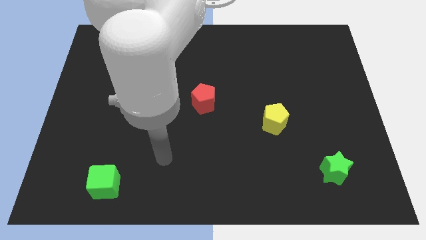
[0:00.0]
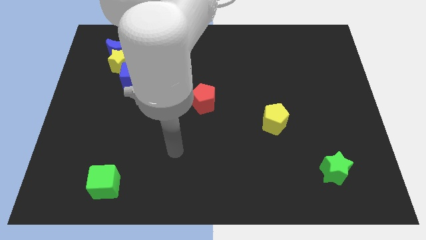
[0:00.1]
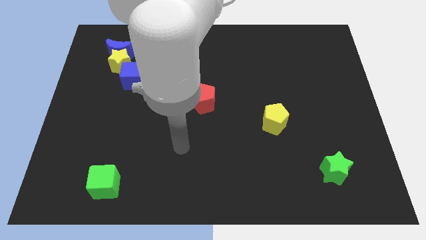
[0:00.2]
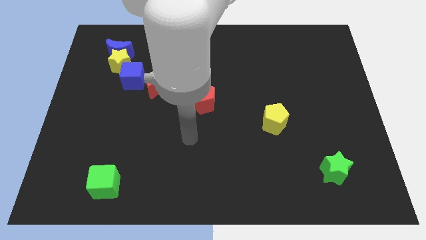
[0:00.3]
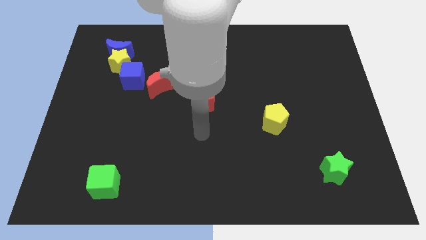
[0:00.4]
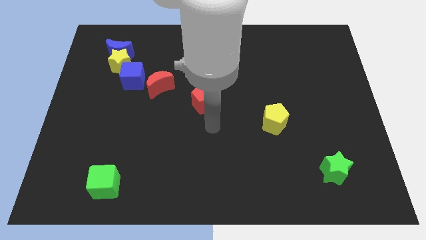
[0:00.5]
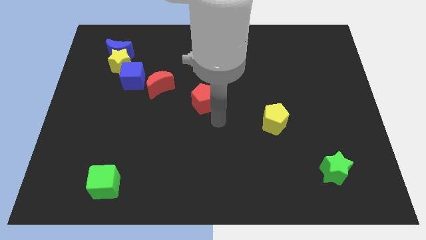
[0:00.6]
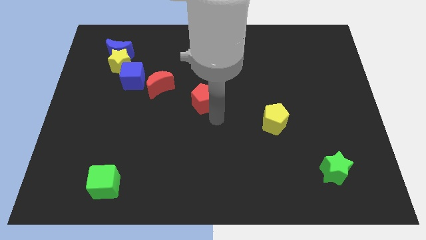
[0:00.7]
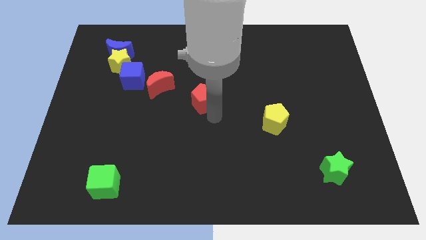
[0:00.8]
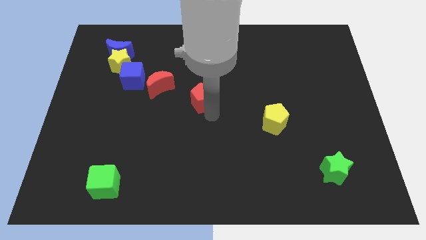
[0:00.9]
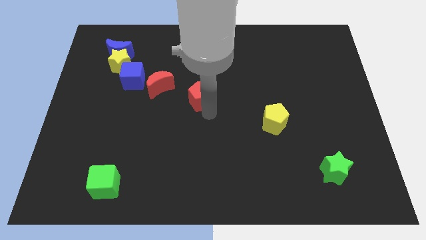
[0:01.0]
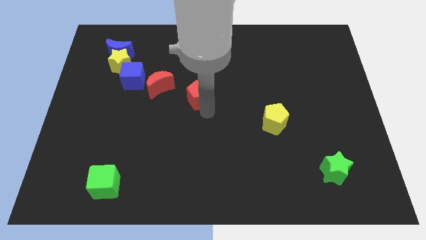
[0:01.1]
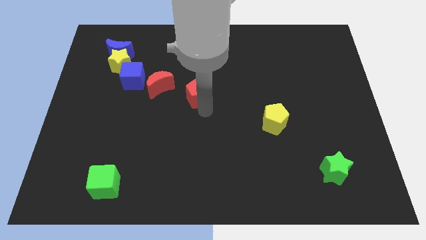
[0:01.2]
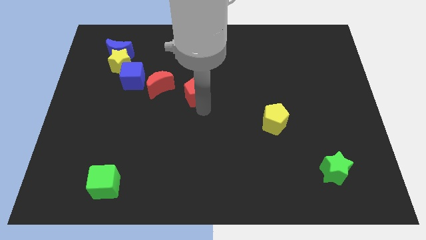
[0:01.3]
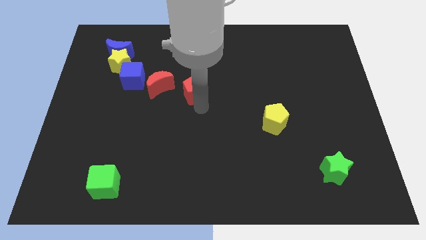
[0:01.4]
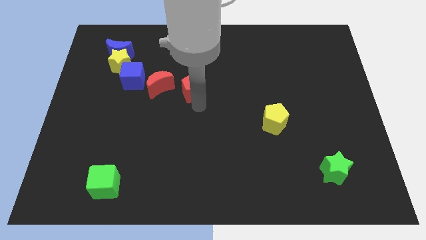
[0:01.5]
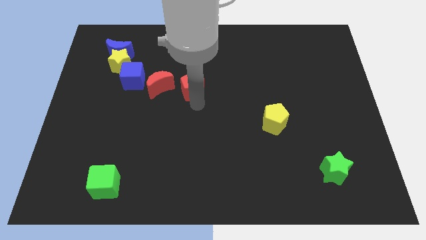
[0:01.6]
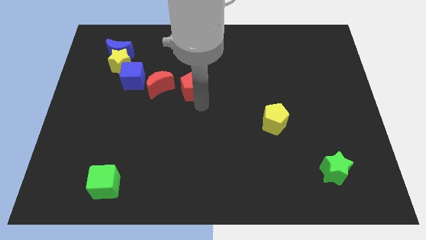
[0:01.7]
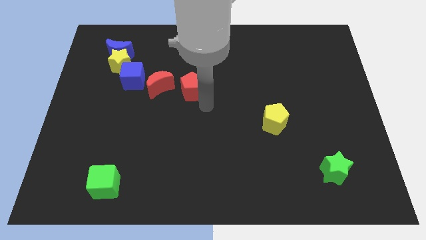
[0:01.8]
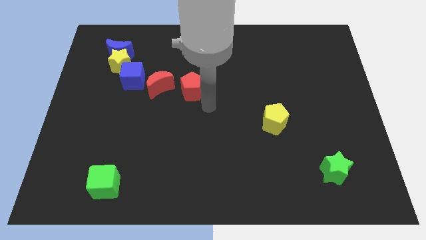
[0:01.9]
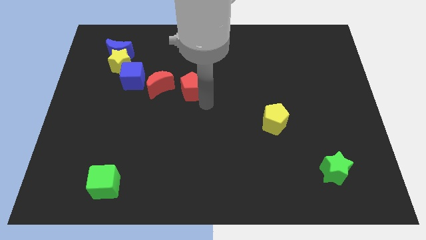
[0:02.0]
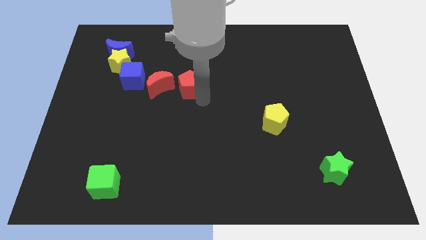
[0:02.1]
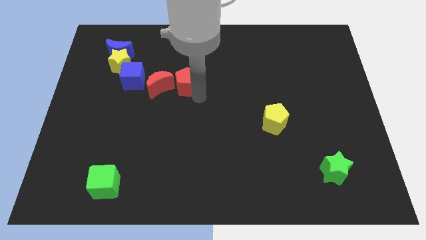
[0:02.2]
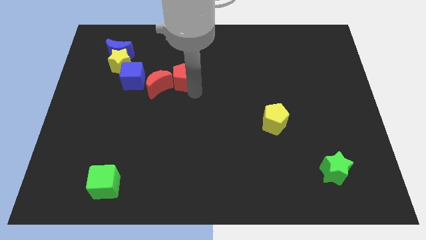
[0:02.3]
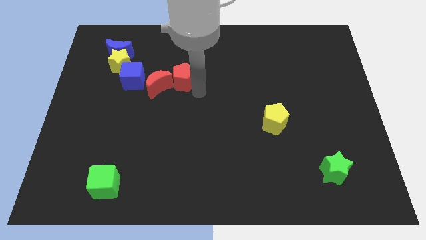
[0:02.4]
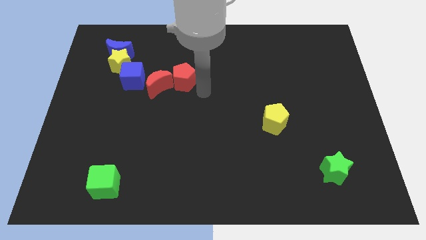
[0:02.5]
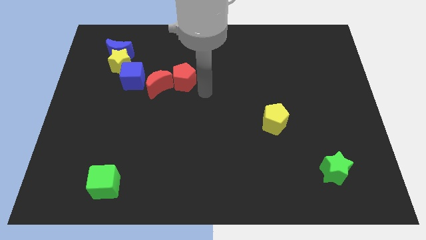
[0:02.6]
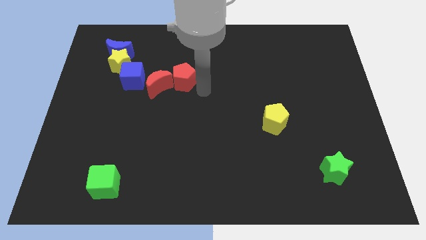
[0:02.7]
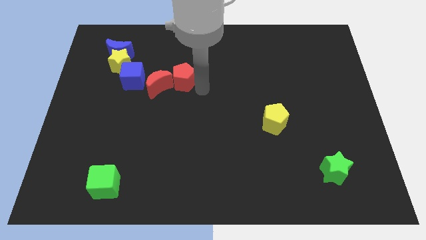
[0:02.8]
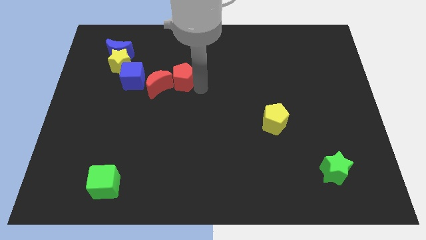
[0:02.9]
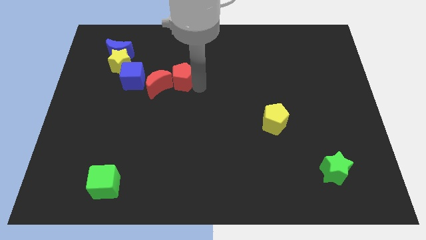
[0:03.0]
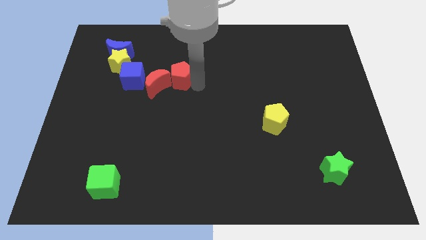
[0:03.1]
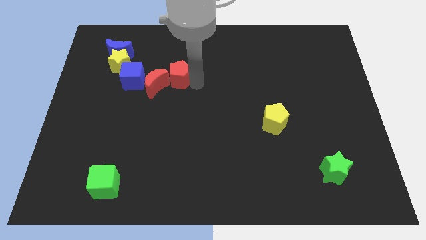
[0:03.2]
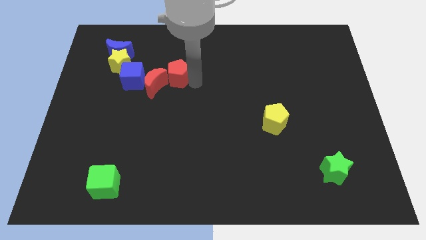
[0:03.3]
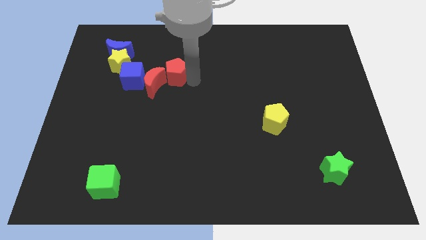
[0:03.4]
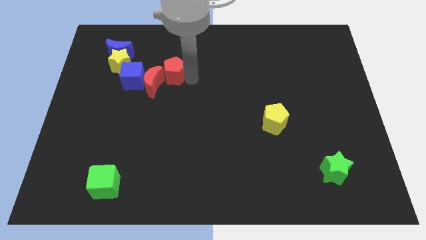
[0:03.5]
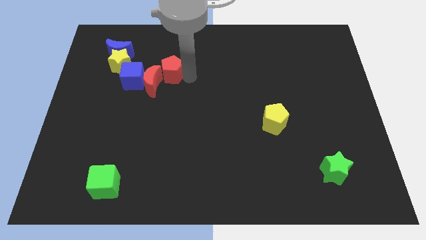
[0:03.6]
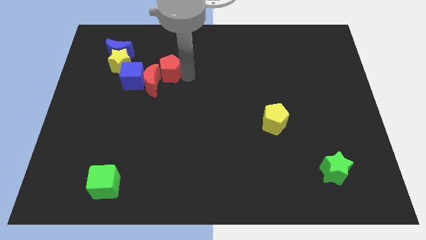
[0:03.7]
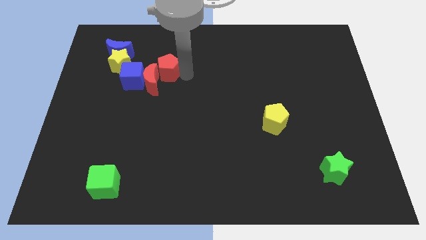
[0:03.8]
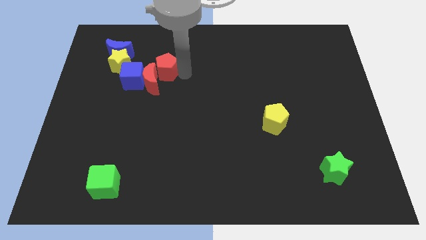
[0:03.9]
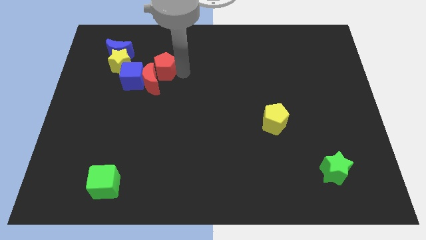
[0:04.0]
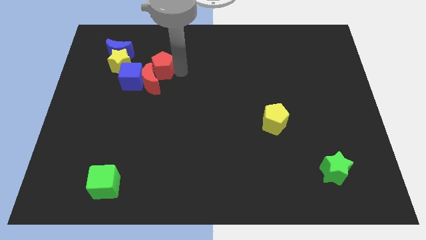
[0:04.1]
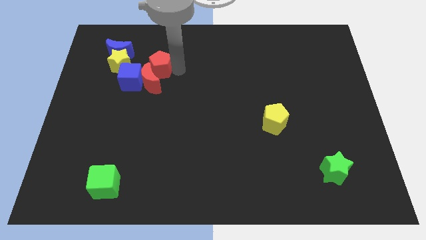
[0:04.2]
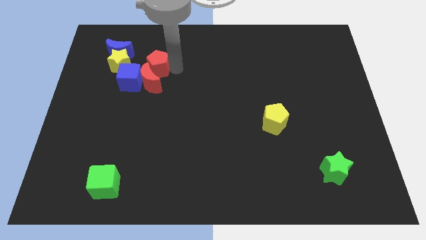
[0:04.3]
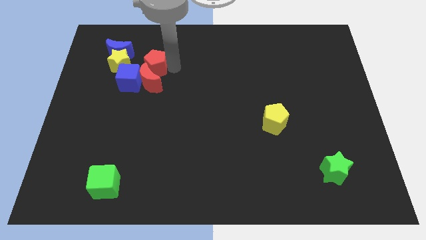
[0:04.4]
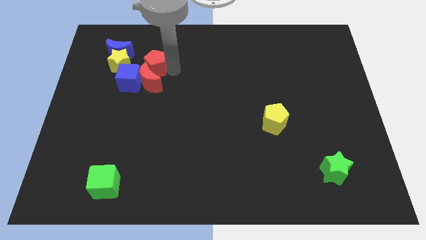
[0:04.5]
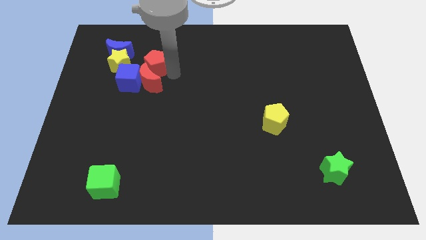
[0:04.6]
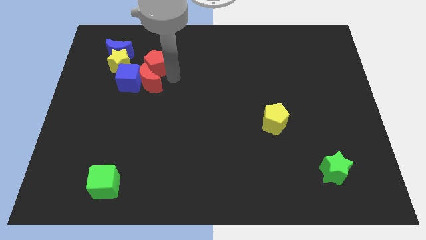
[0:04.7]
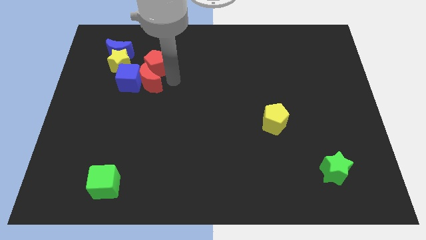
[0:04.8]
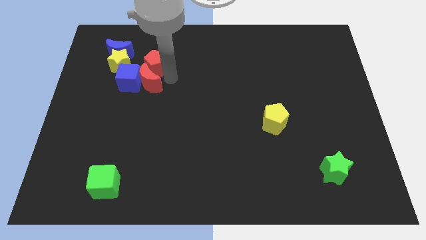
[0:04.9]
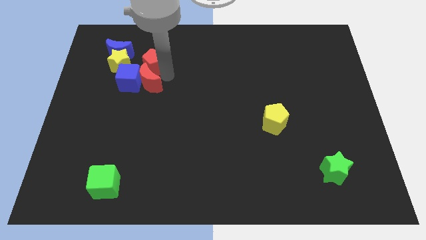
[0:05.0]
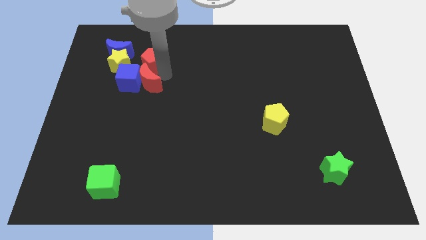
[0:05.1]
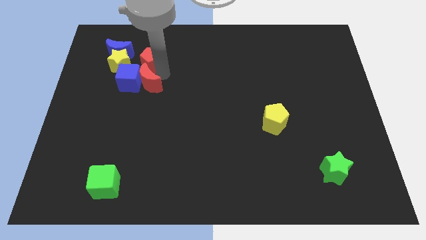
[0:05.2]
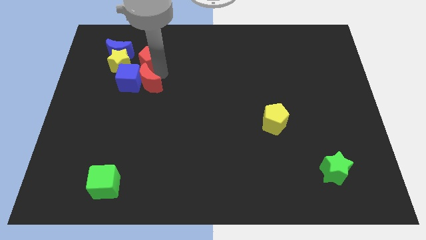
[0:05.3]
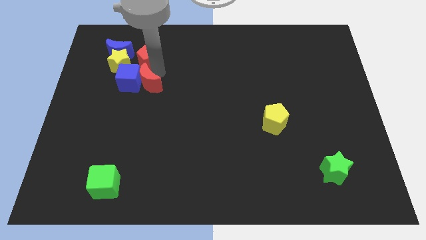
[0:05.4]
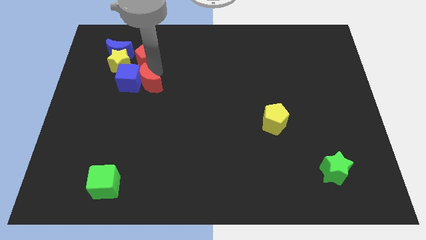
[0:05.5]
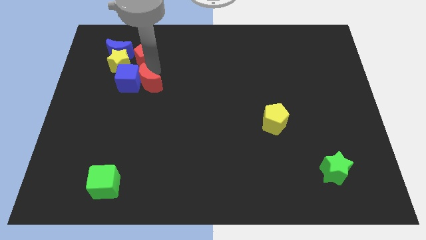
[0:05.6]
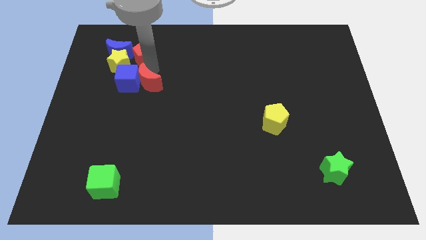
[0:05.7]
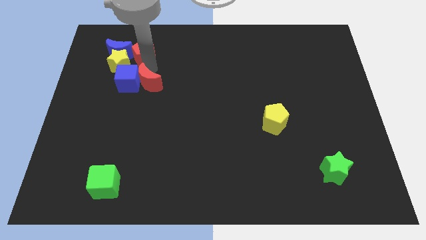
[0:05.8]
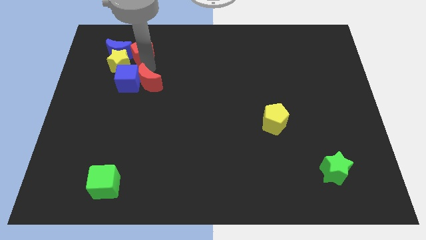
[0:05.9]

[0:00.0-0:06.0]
push the red pentagon towards the blue moon
